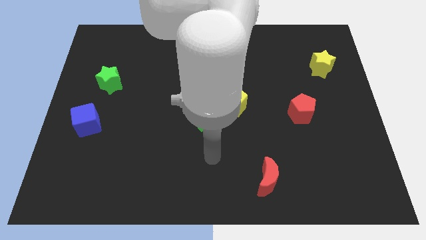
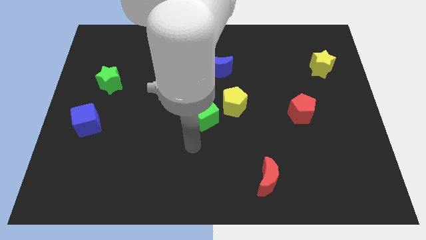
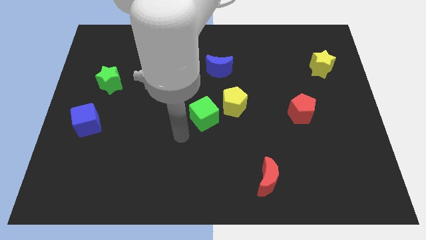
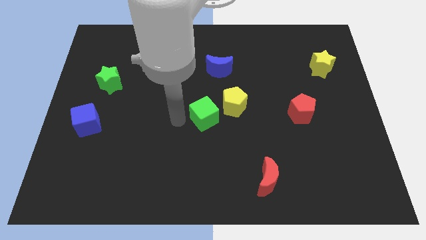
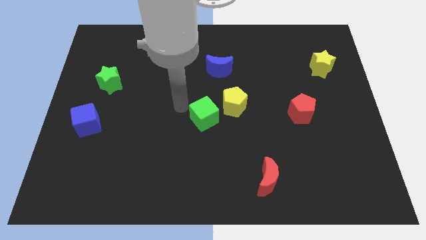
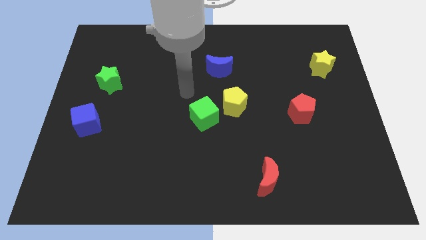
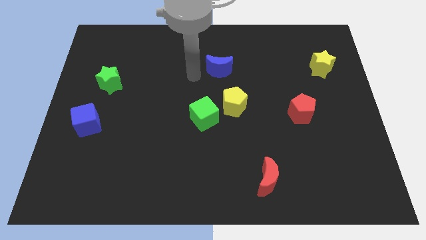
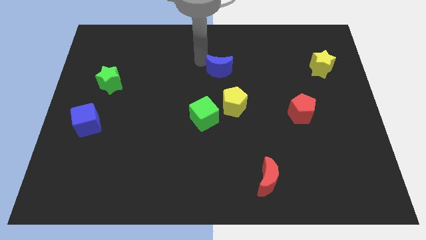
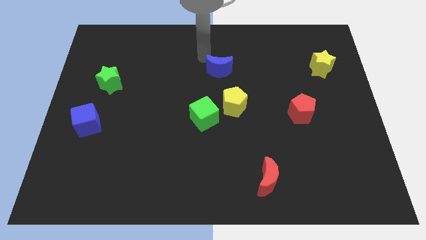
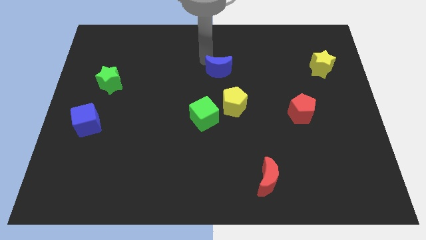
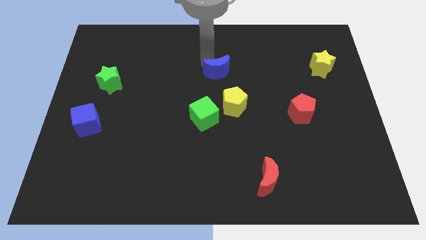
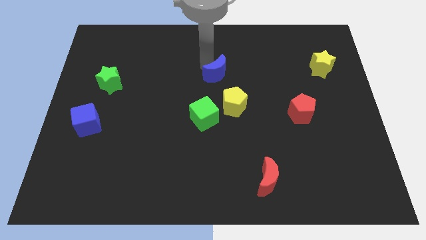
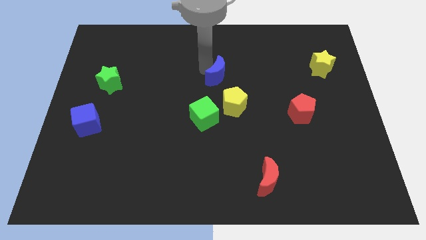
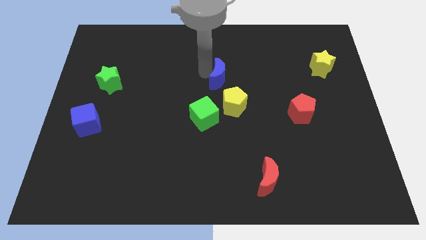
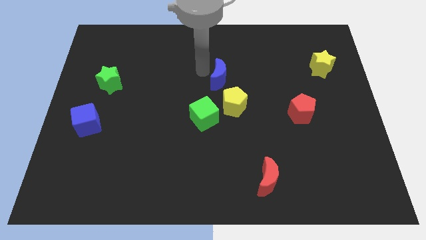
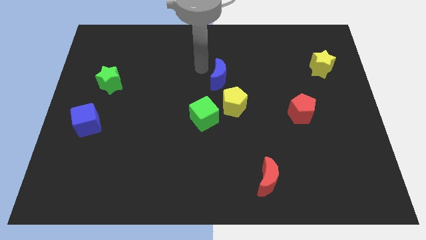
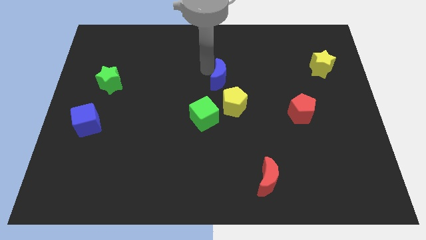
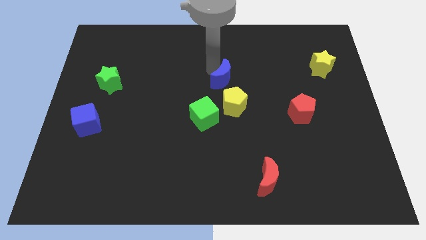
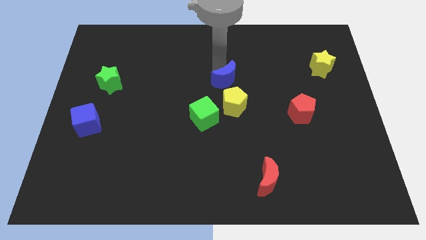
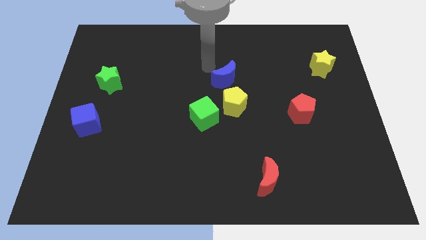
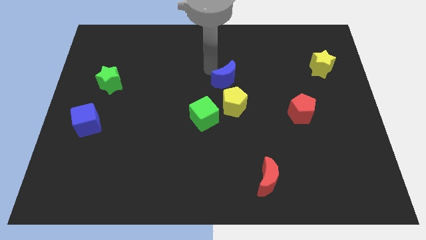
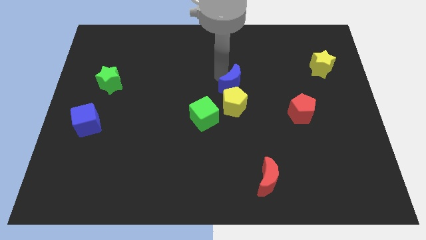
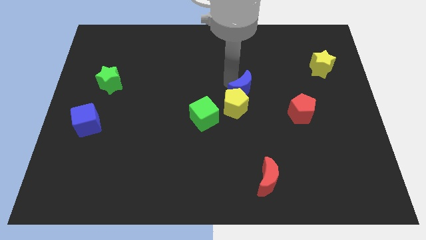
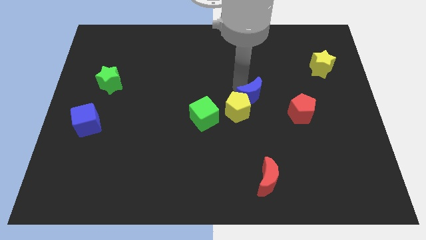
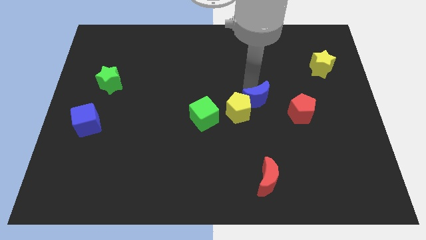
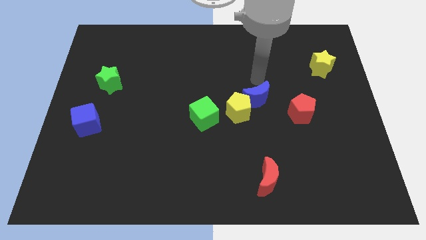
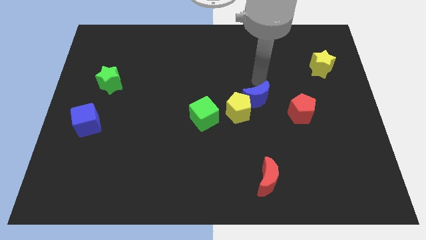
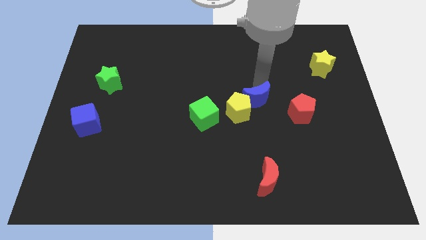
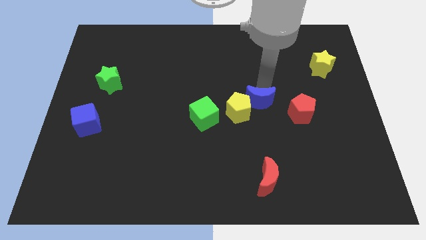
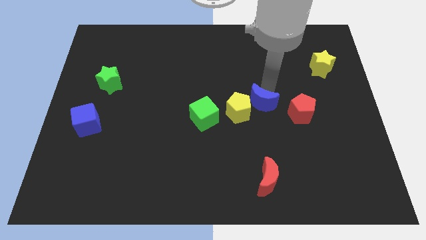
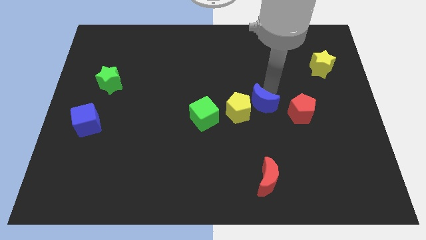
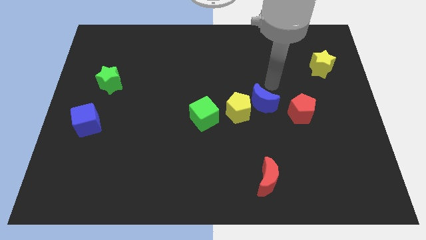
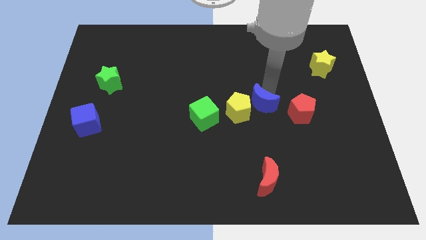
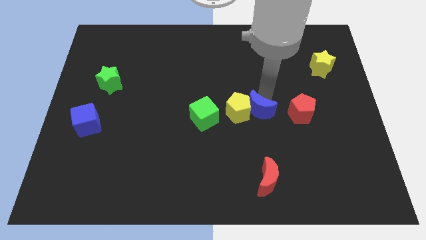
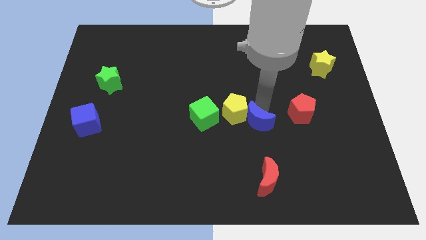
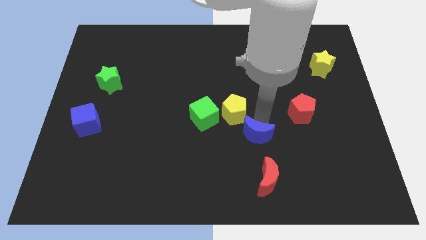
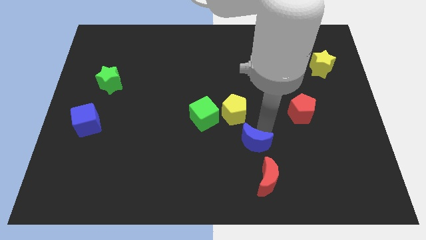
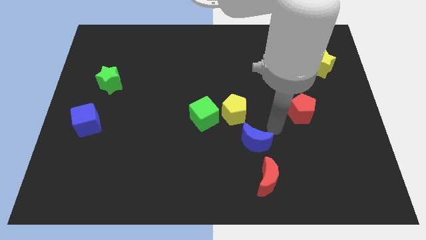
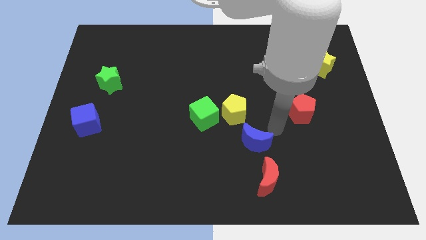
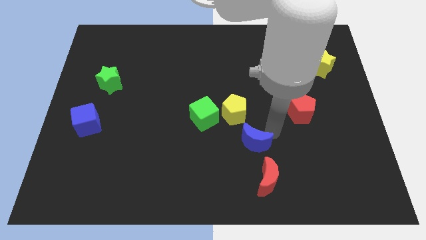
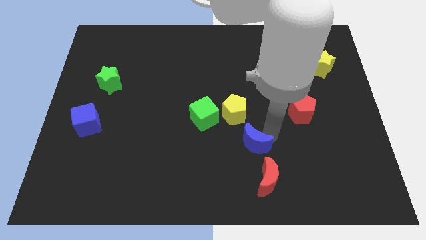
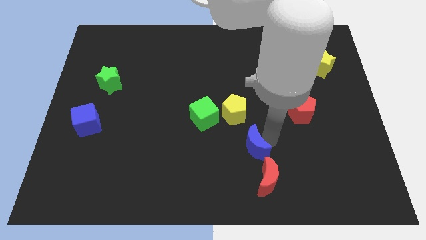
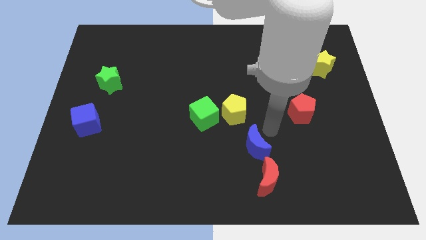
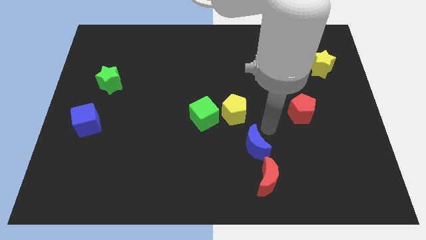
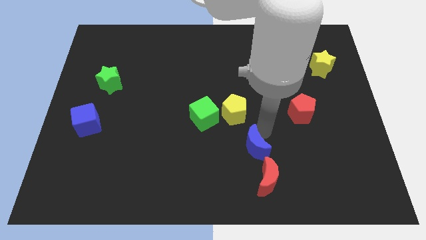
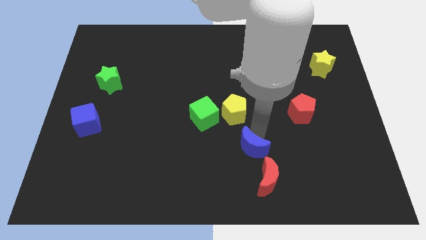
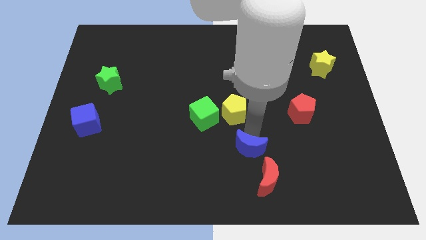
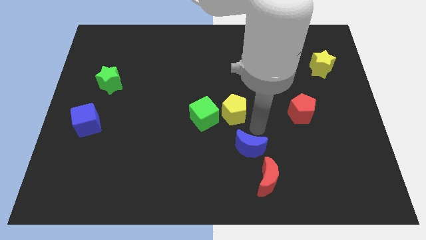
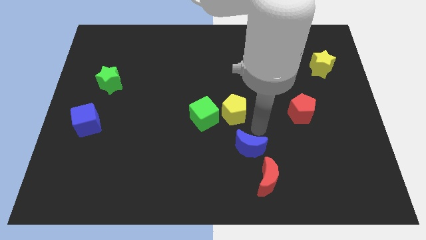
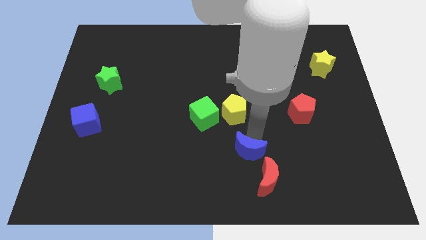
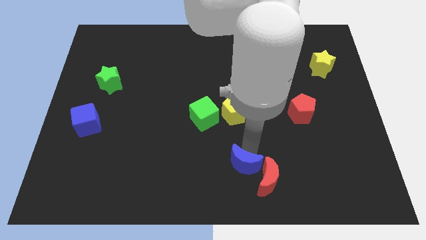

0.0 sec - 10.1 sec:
slide the blue moon to the bottom side

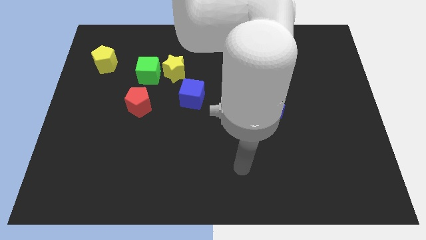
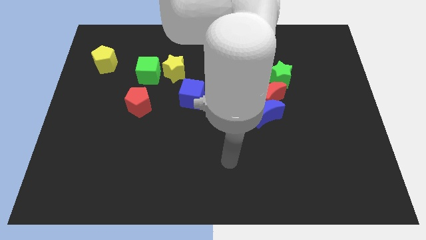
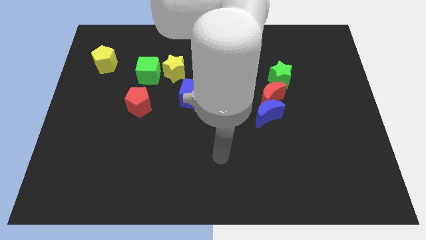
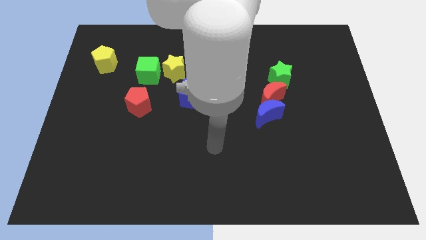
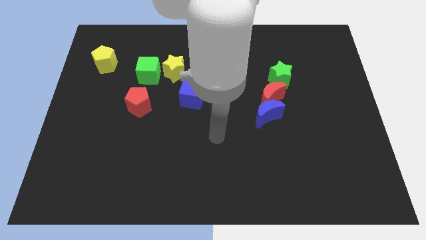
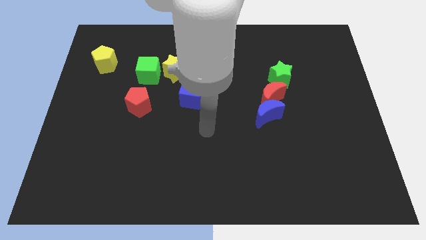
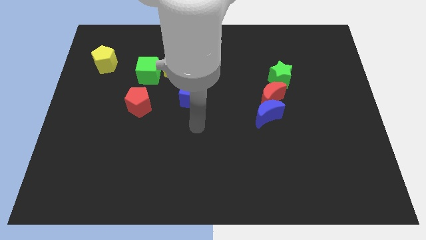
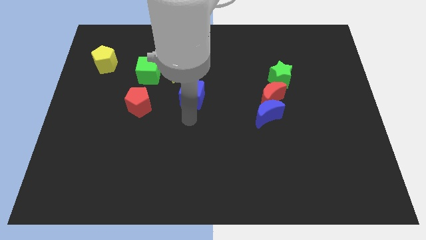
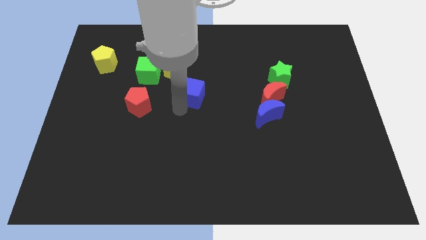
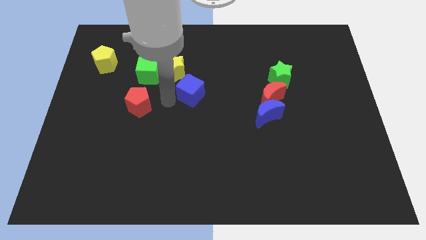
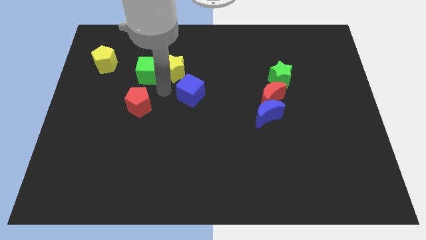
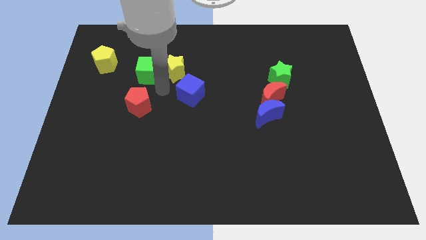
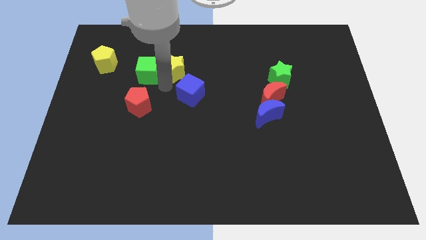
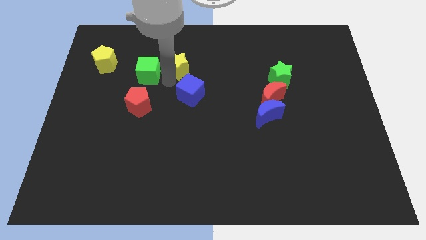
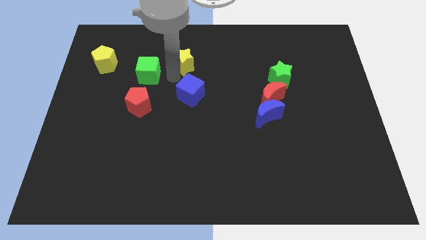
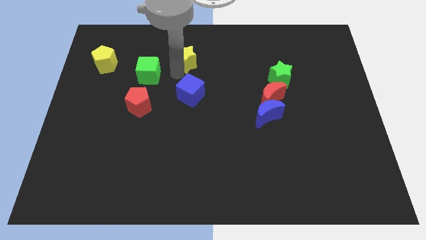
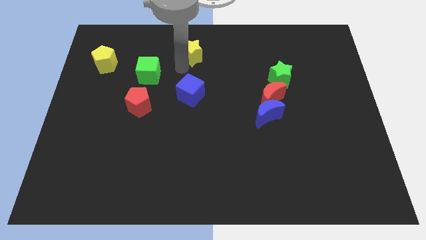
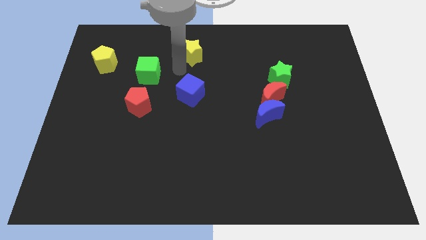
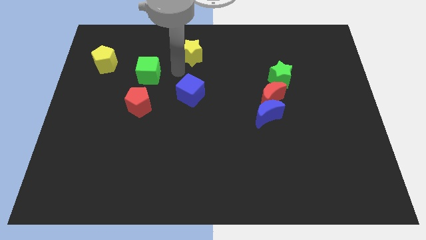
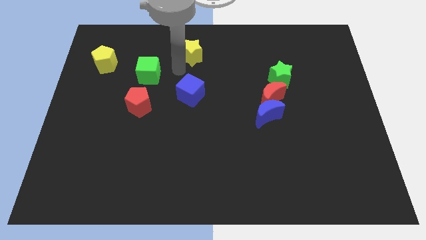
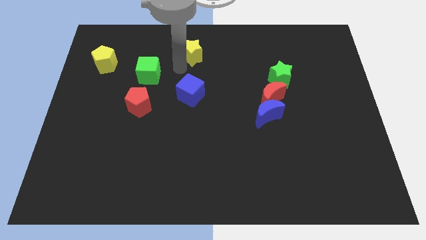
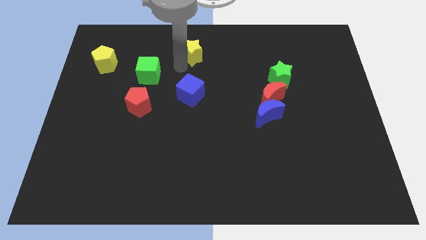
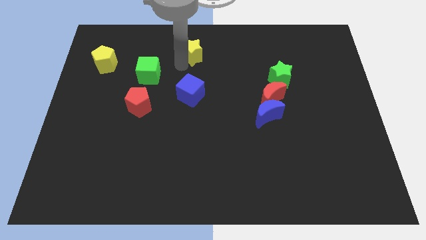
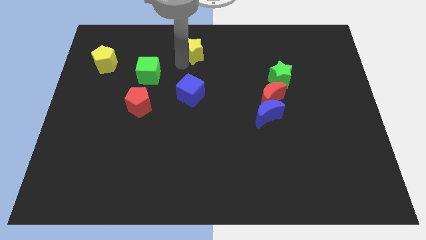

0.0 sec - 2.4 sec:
put the yellow star to the top
